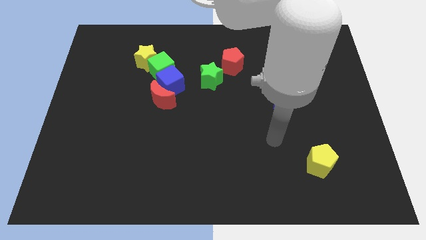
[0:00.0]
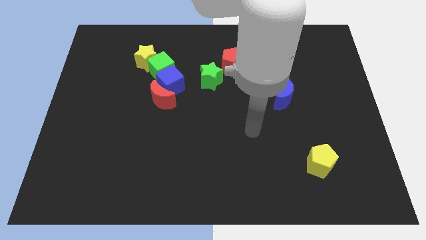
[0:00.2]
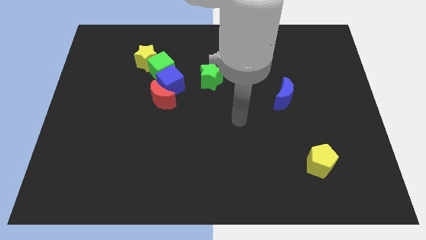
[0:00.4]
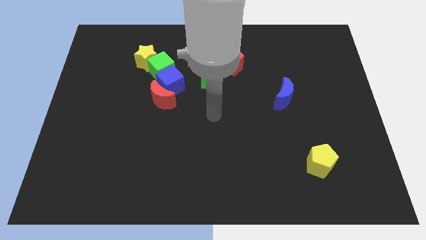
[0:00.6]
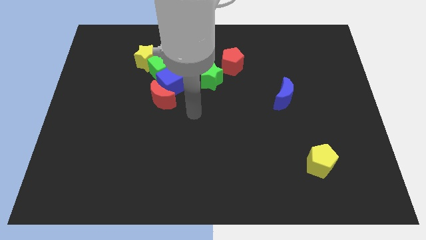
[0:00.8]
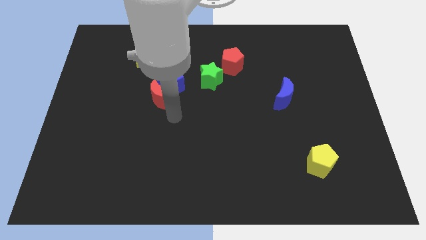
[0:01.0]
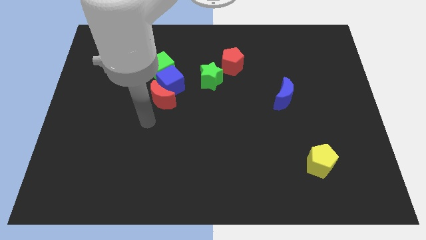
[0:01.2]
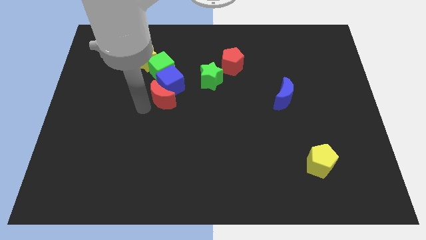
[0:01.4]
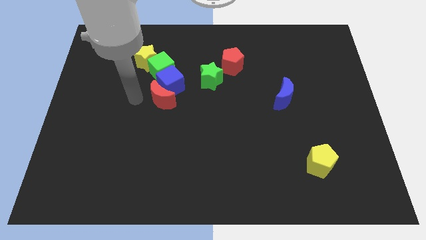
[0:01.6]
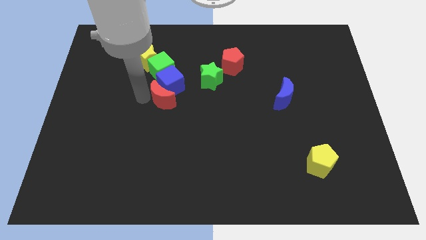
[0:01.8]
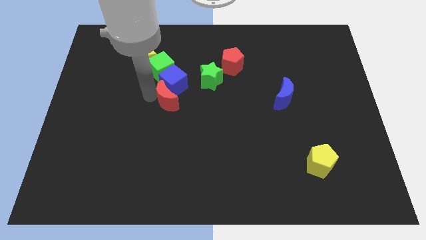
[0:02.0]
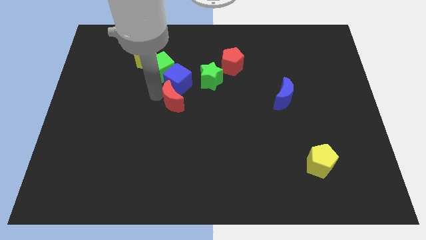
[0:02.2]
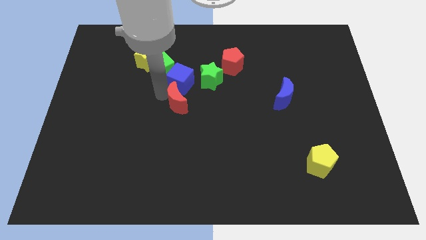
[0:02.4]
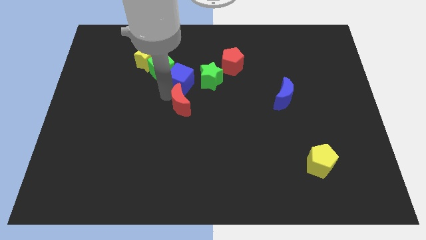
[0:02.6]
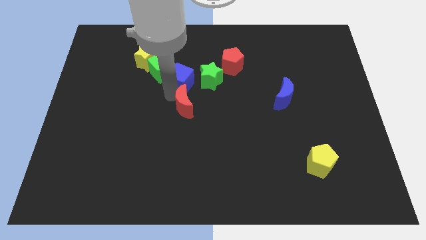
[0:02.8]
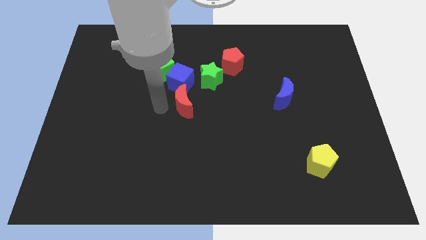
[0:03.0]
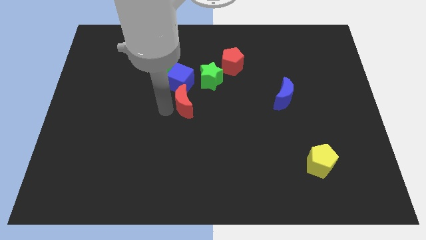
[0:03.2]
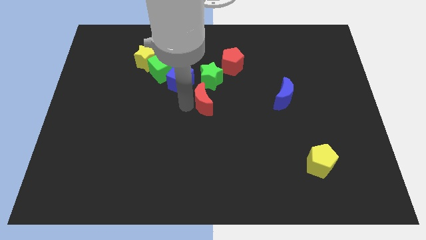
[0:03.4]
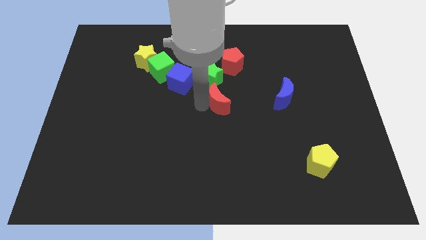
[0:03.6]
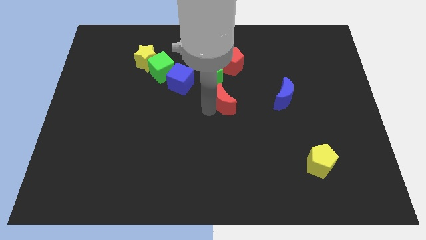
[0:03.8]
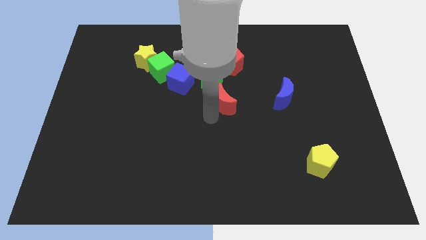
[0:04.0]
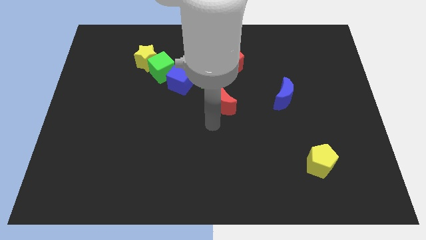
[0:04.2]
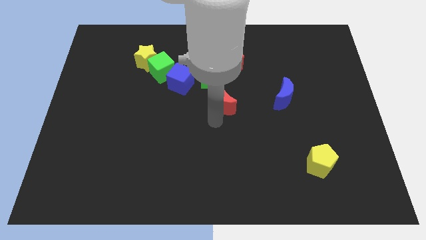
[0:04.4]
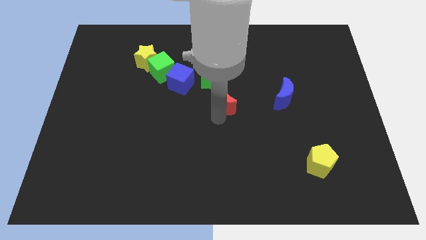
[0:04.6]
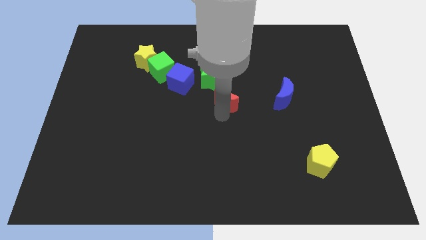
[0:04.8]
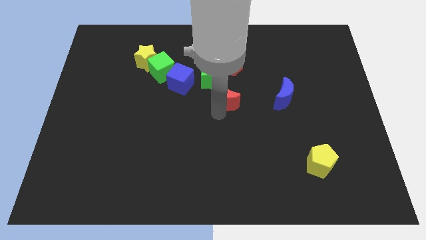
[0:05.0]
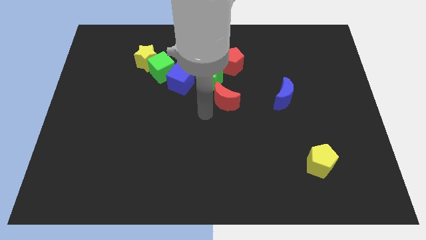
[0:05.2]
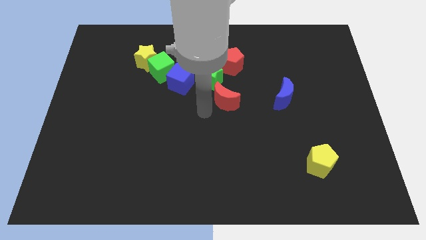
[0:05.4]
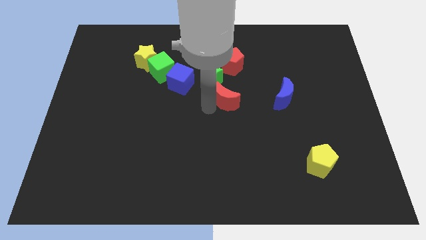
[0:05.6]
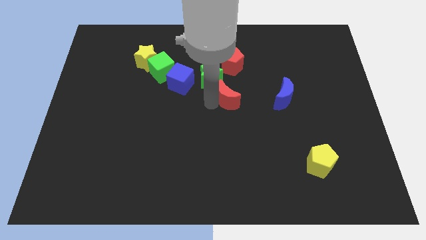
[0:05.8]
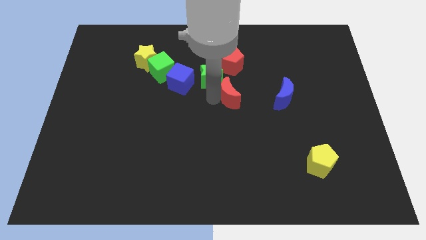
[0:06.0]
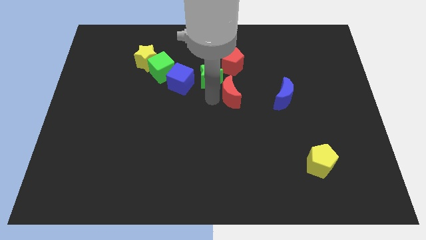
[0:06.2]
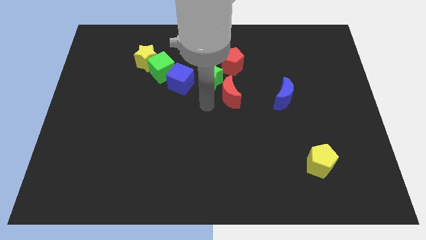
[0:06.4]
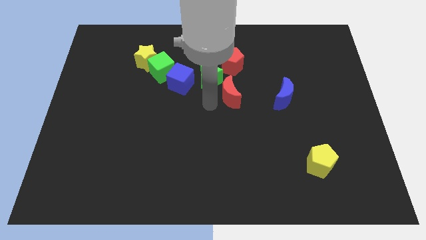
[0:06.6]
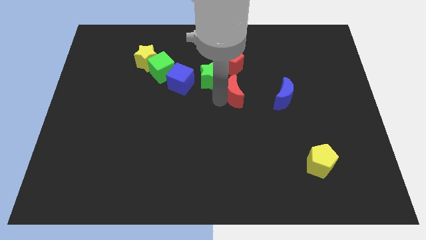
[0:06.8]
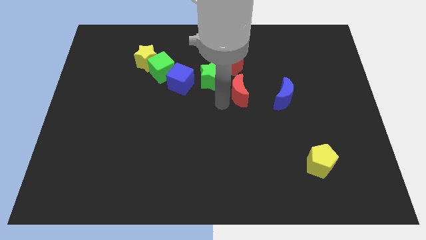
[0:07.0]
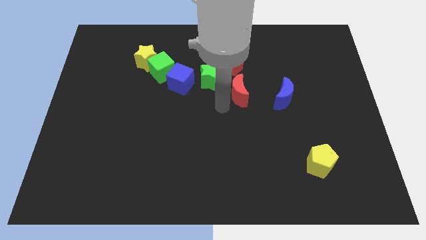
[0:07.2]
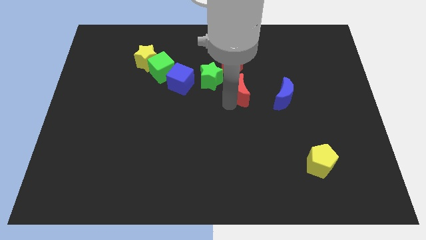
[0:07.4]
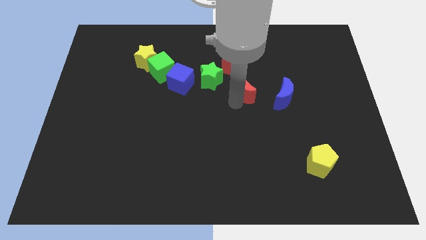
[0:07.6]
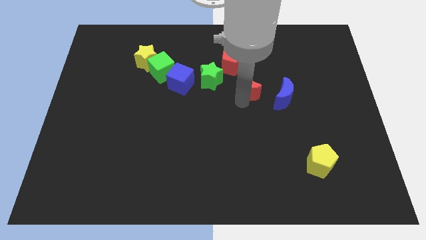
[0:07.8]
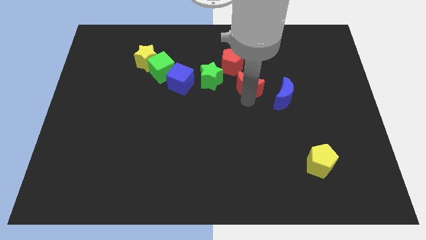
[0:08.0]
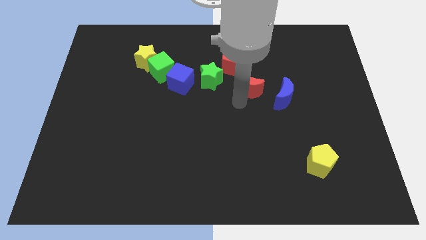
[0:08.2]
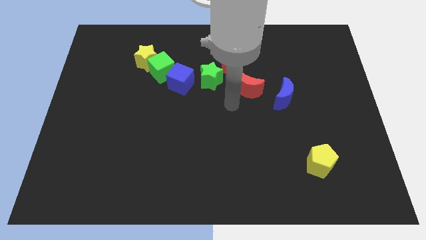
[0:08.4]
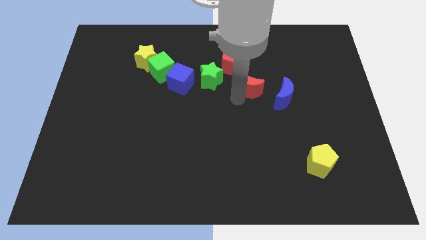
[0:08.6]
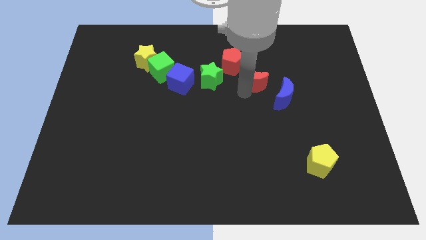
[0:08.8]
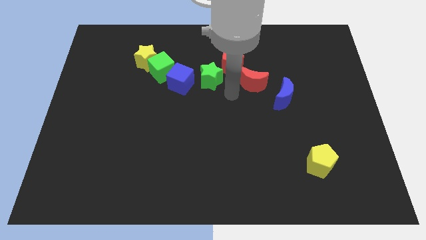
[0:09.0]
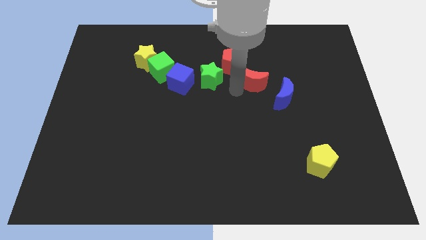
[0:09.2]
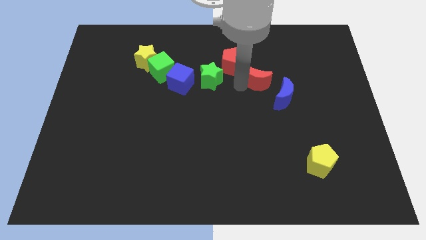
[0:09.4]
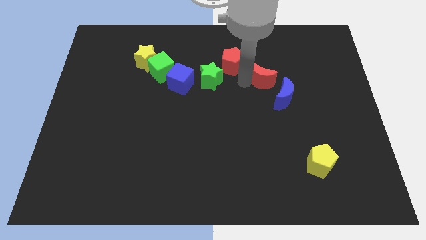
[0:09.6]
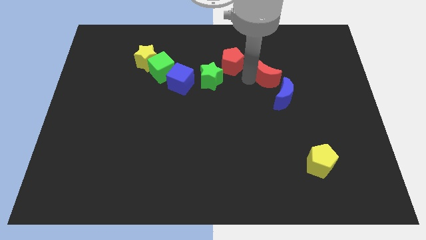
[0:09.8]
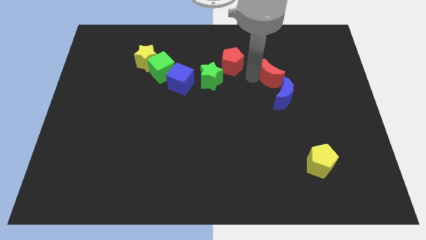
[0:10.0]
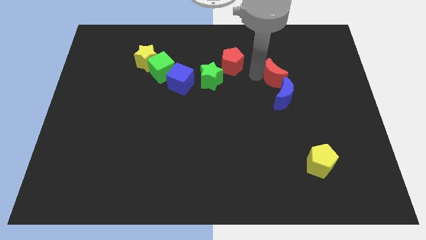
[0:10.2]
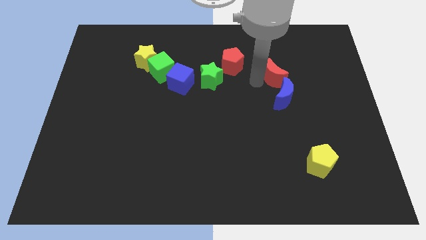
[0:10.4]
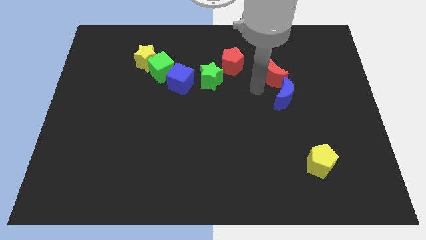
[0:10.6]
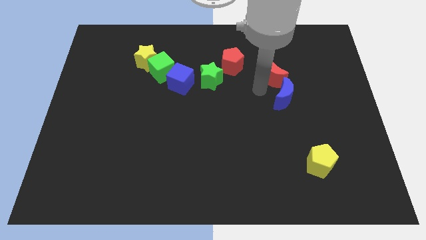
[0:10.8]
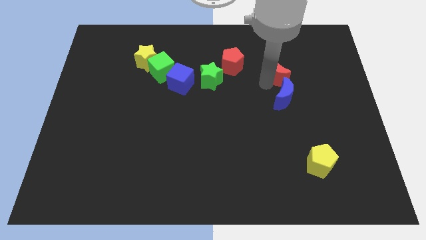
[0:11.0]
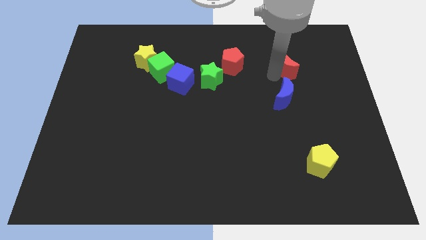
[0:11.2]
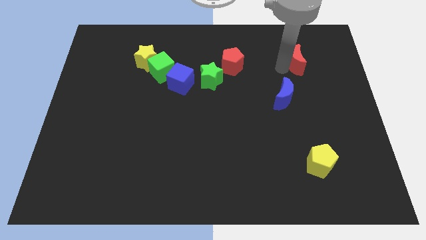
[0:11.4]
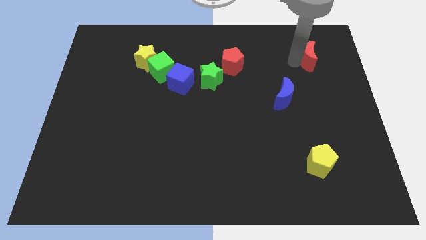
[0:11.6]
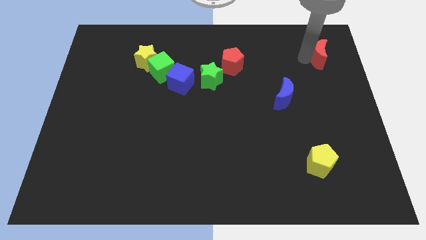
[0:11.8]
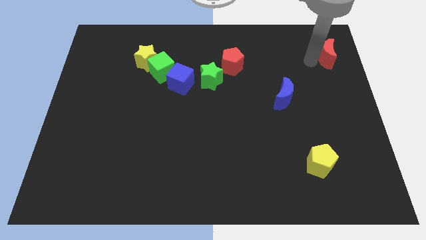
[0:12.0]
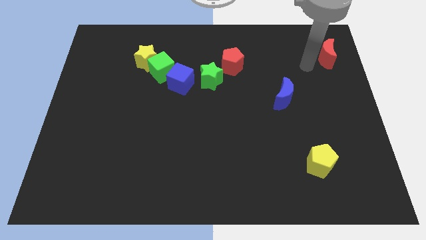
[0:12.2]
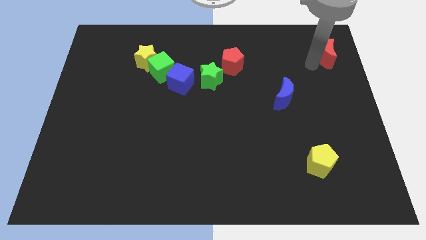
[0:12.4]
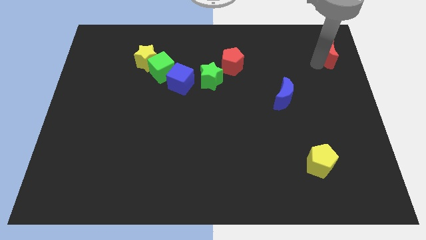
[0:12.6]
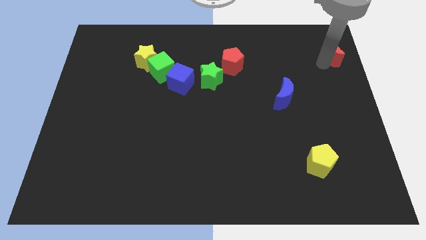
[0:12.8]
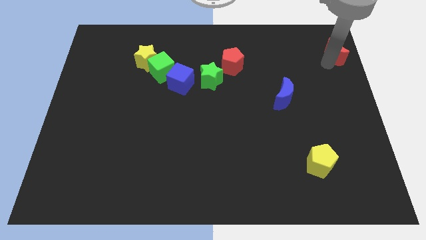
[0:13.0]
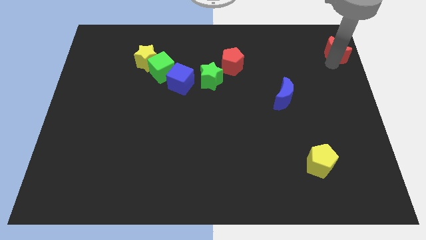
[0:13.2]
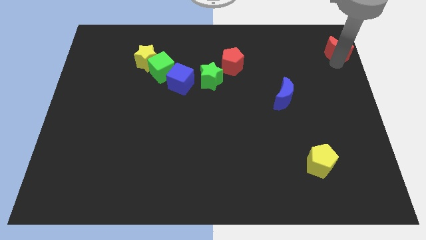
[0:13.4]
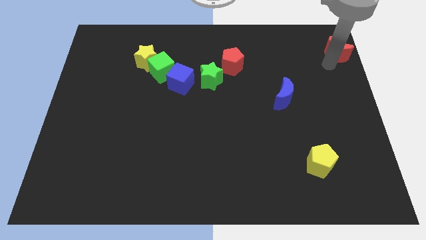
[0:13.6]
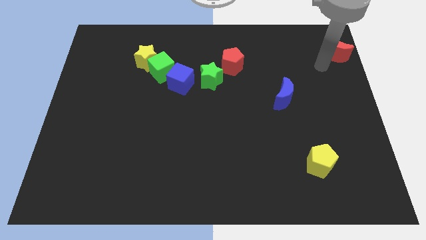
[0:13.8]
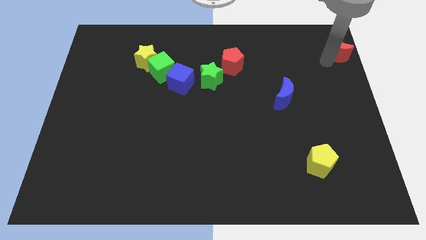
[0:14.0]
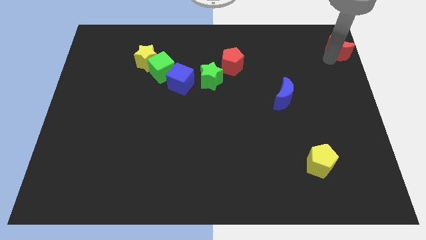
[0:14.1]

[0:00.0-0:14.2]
put the red moon to the top right of the board
